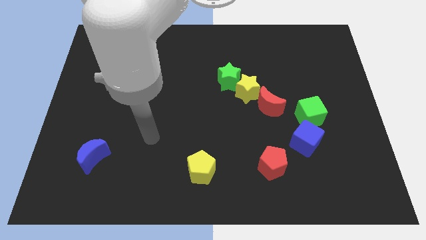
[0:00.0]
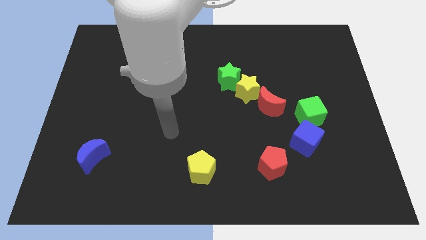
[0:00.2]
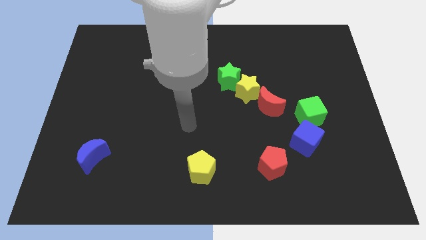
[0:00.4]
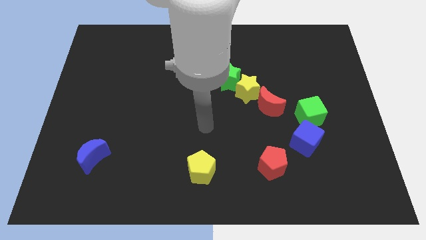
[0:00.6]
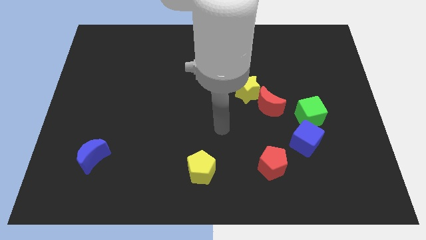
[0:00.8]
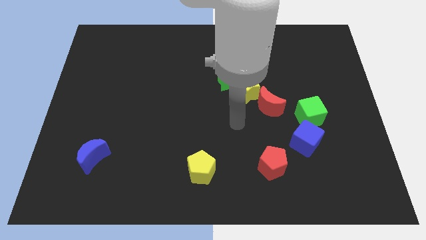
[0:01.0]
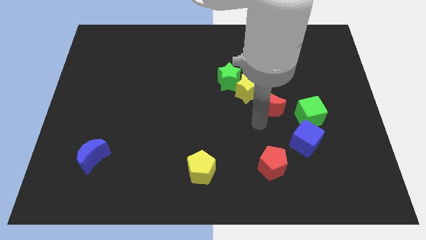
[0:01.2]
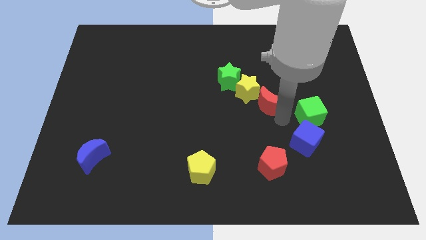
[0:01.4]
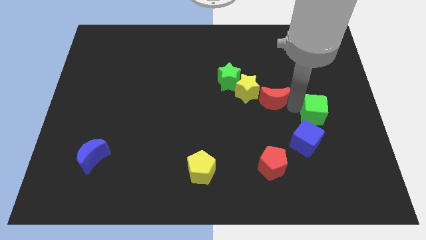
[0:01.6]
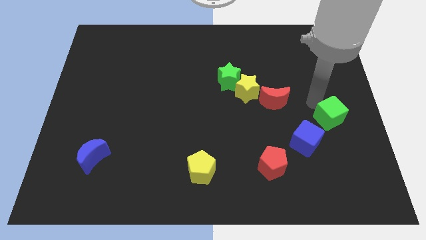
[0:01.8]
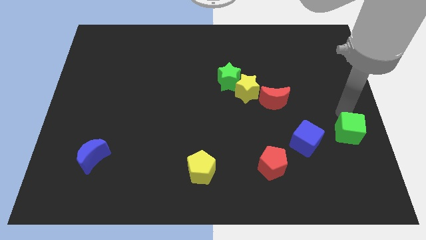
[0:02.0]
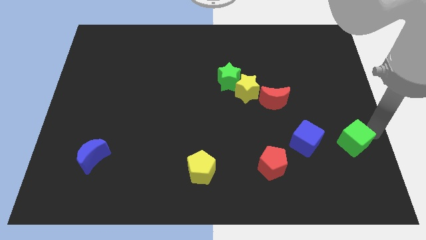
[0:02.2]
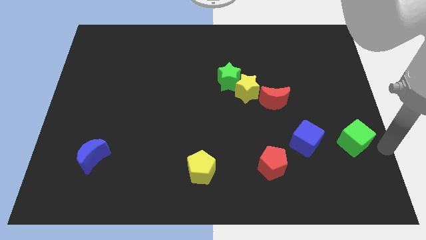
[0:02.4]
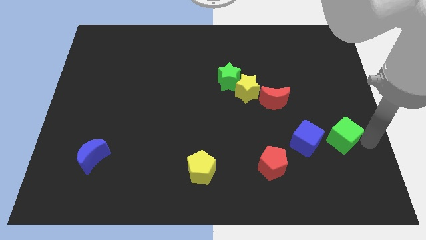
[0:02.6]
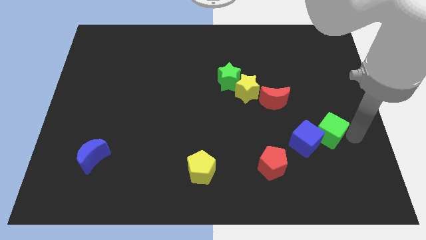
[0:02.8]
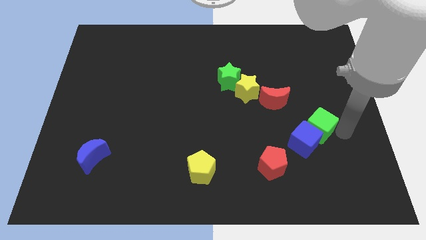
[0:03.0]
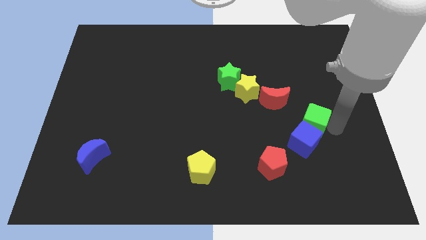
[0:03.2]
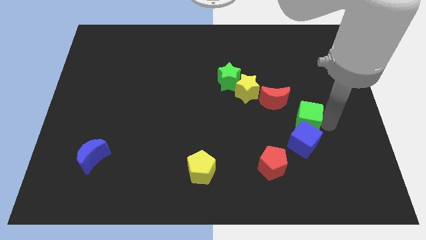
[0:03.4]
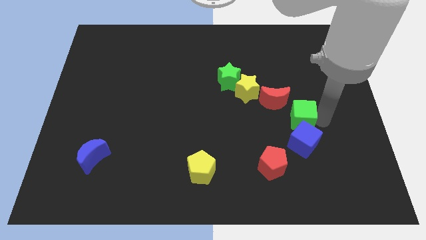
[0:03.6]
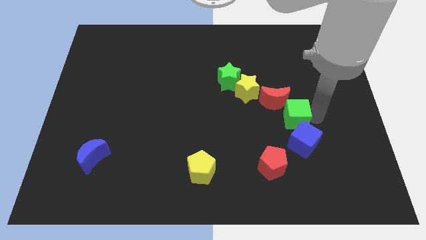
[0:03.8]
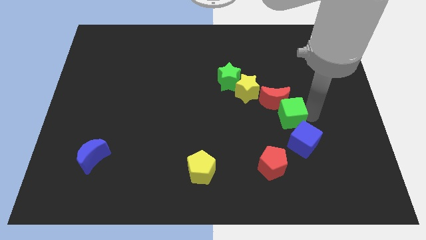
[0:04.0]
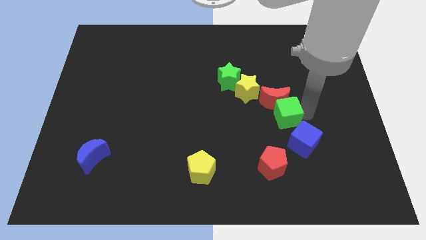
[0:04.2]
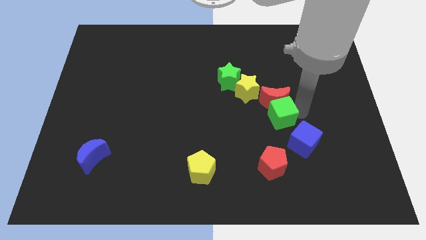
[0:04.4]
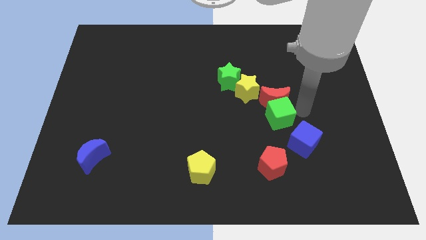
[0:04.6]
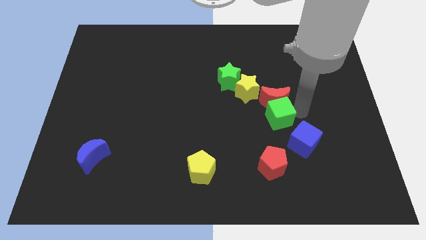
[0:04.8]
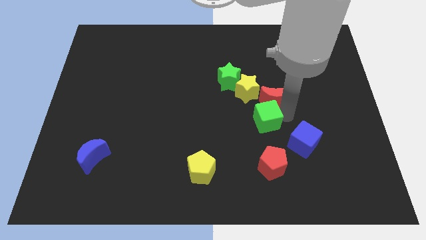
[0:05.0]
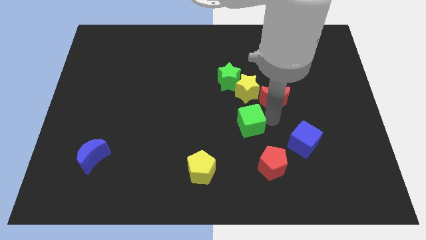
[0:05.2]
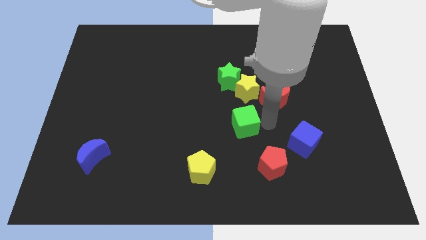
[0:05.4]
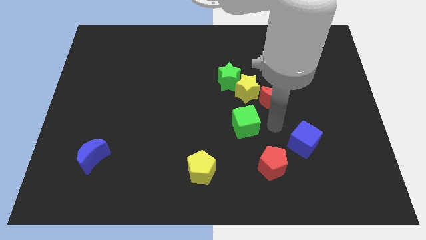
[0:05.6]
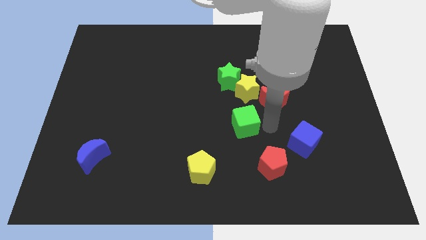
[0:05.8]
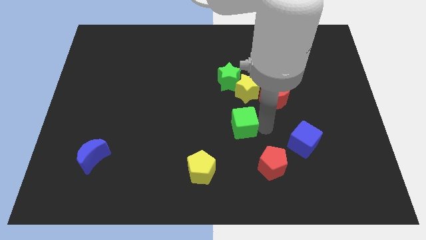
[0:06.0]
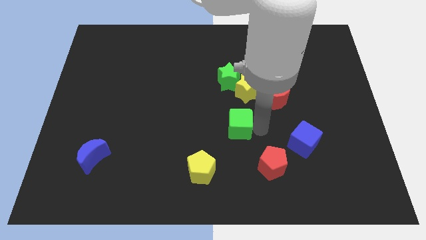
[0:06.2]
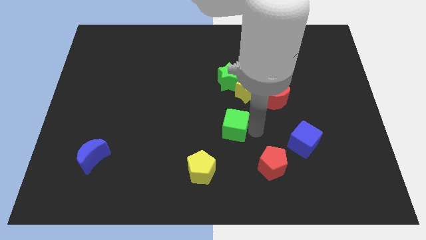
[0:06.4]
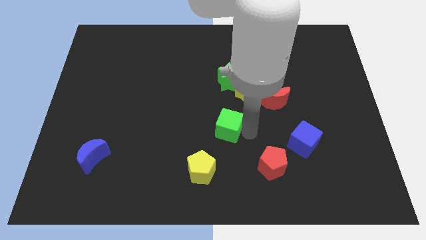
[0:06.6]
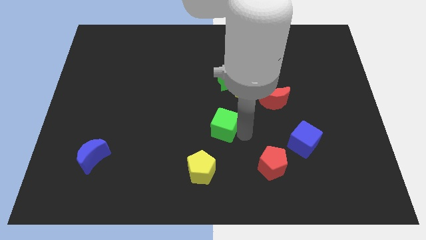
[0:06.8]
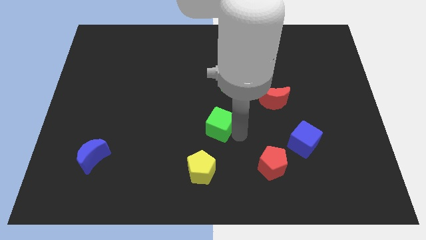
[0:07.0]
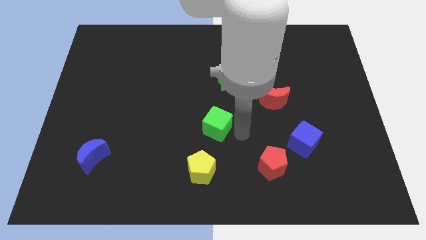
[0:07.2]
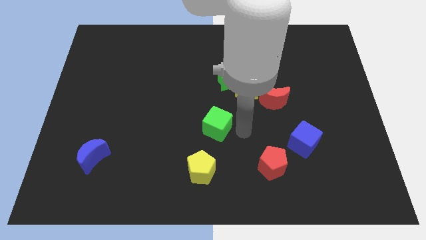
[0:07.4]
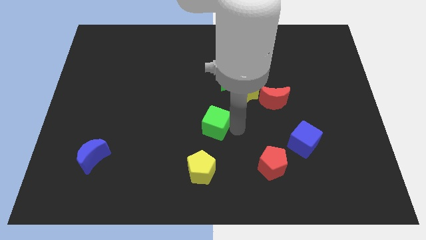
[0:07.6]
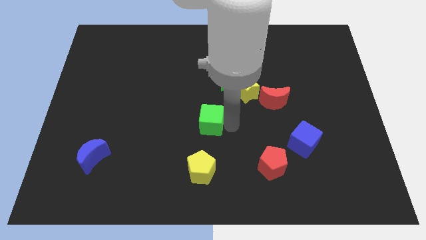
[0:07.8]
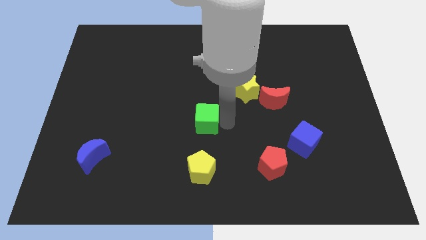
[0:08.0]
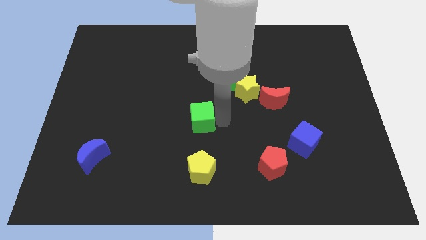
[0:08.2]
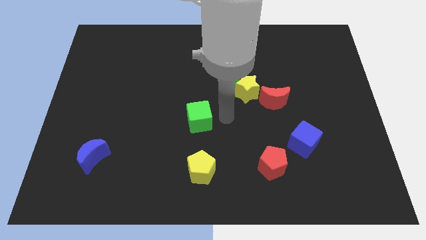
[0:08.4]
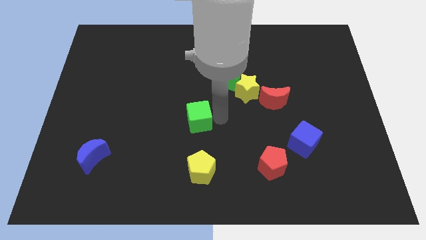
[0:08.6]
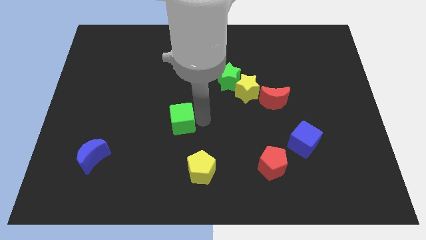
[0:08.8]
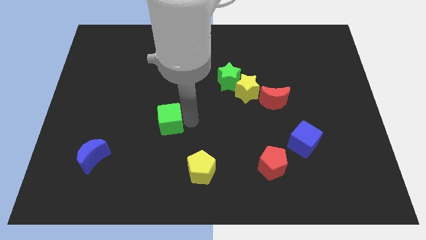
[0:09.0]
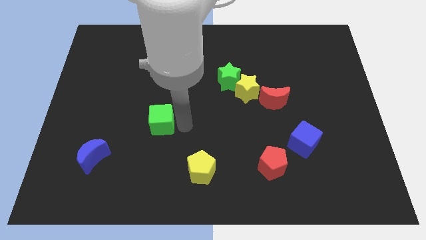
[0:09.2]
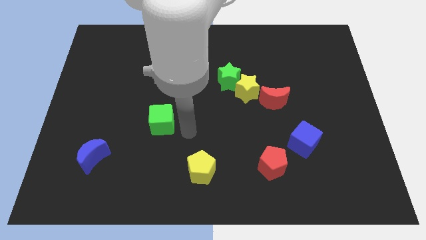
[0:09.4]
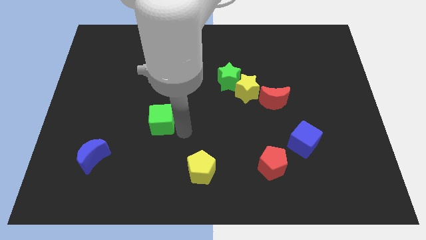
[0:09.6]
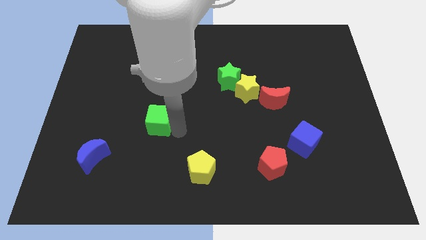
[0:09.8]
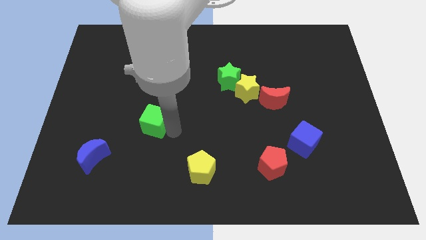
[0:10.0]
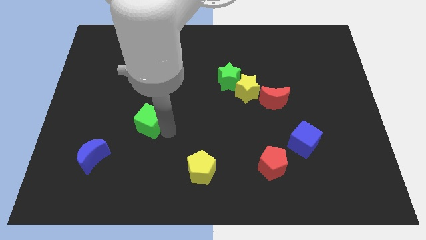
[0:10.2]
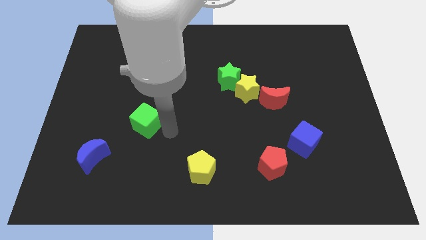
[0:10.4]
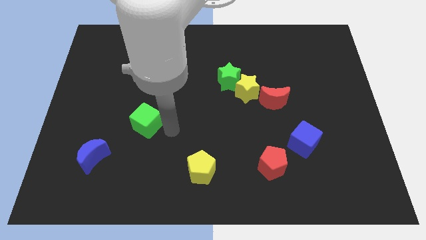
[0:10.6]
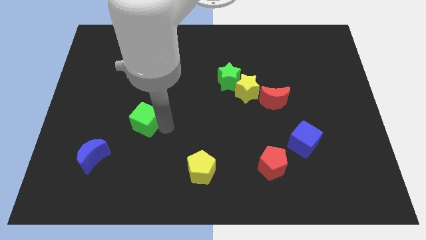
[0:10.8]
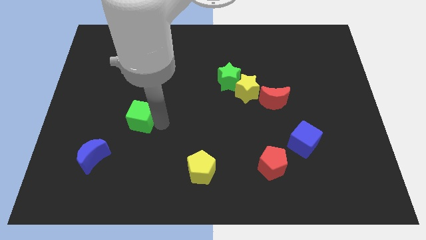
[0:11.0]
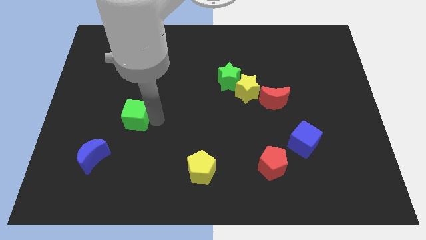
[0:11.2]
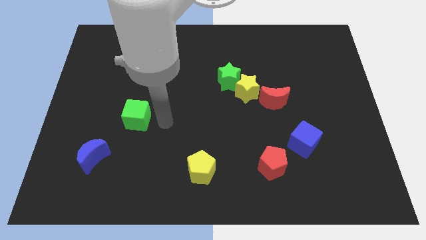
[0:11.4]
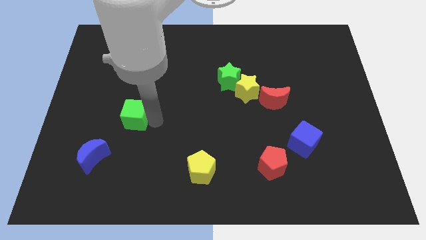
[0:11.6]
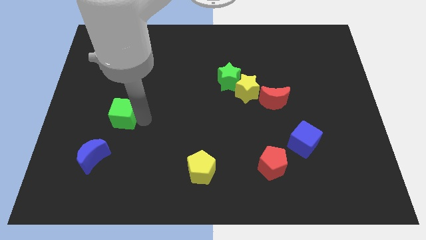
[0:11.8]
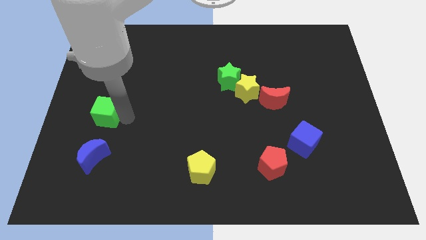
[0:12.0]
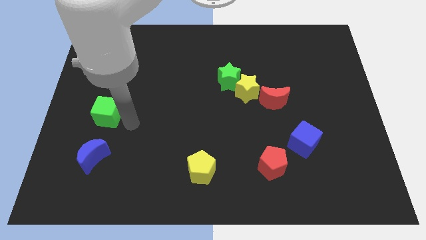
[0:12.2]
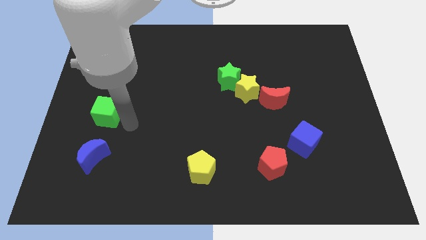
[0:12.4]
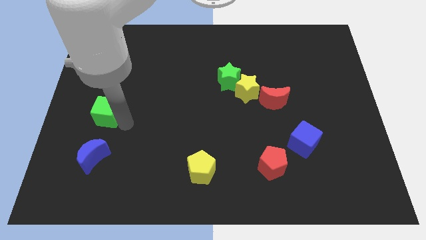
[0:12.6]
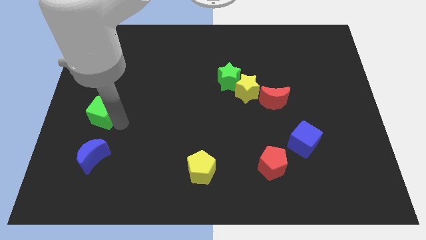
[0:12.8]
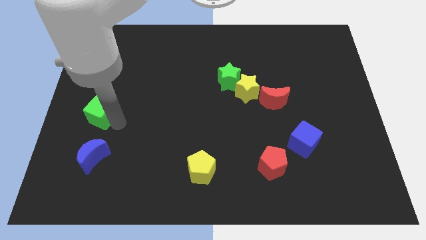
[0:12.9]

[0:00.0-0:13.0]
move the green cube to the center left
